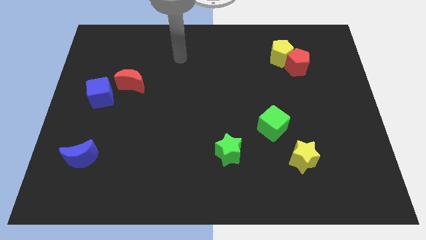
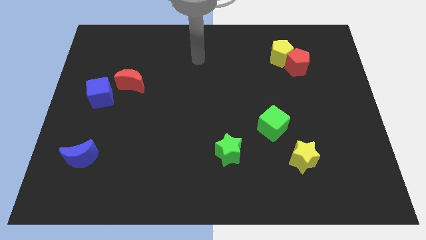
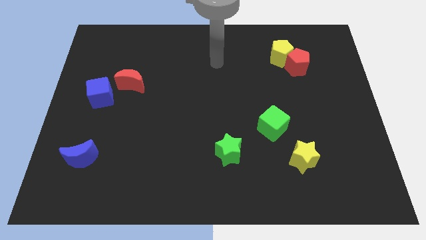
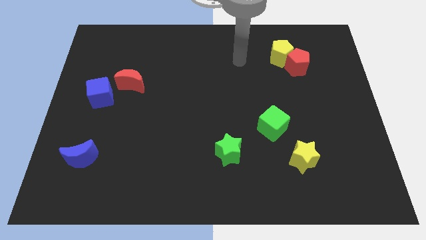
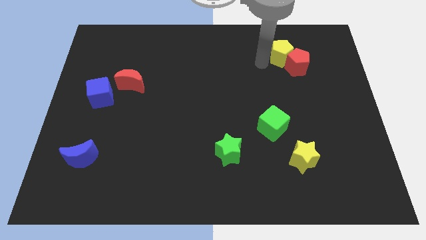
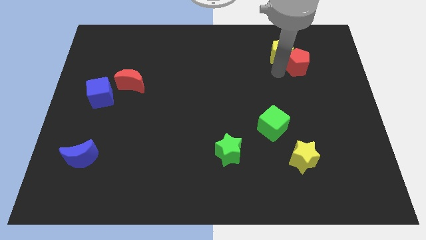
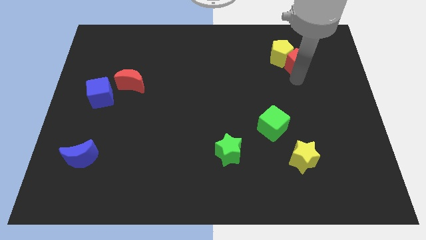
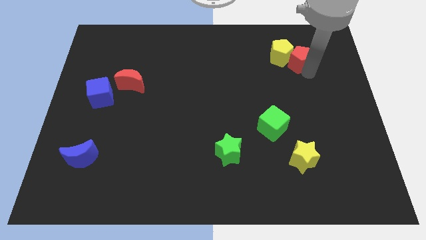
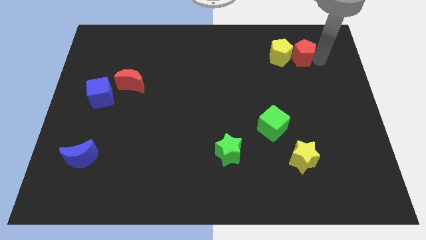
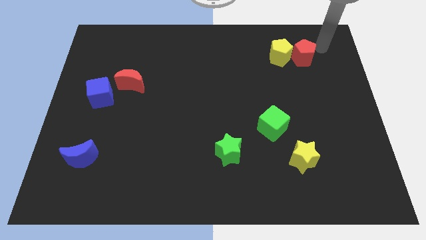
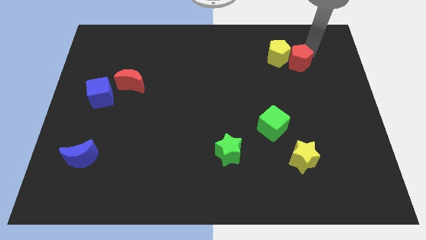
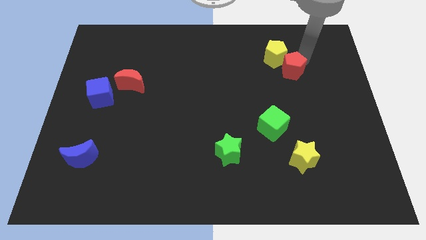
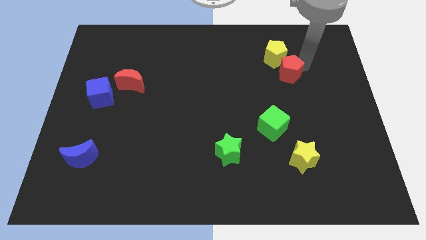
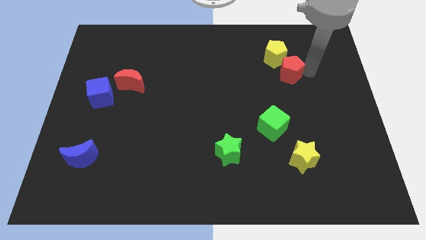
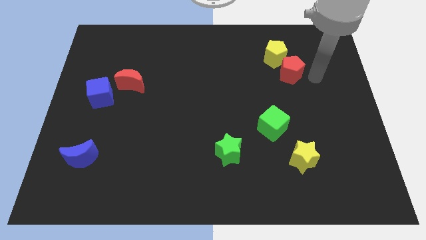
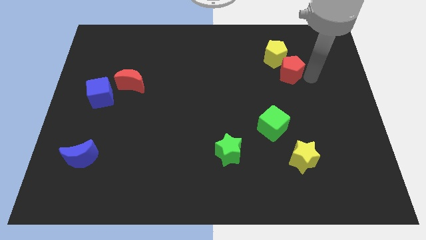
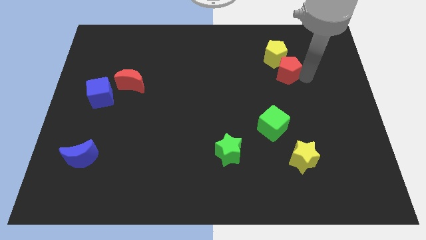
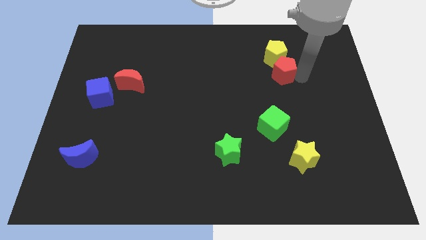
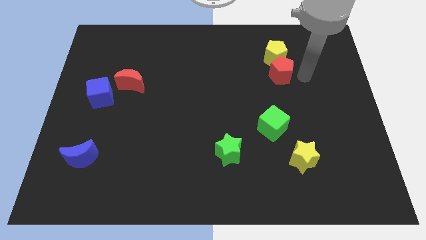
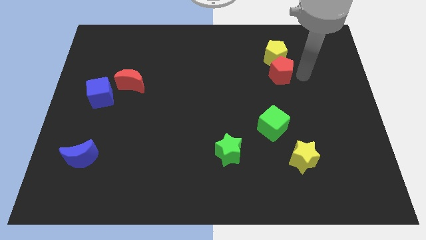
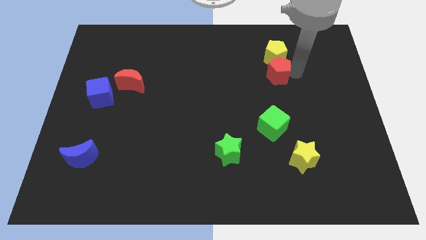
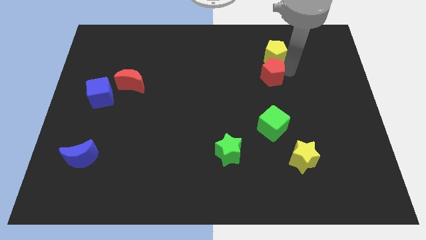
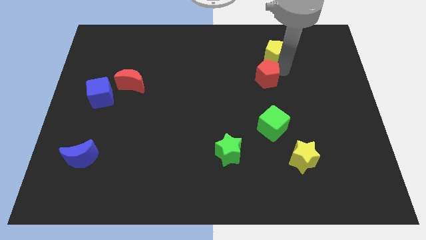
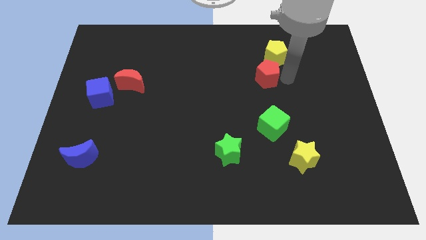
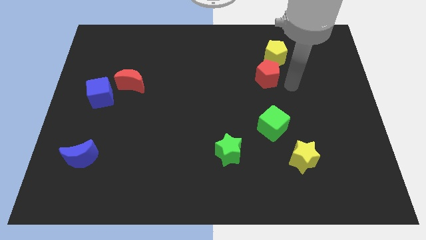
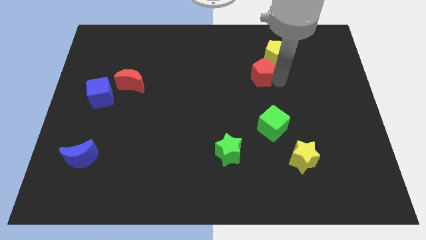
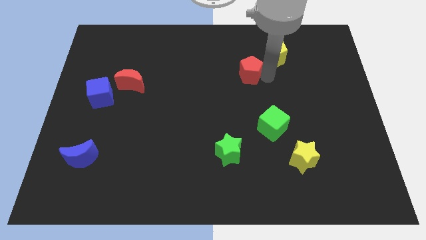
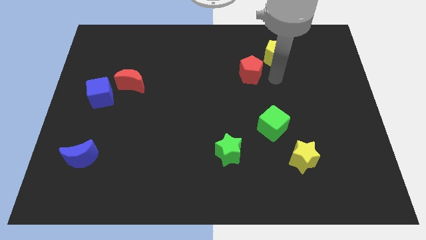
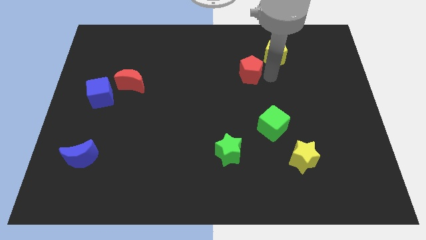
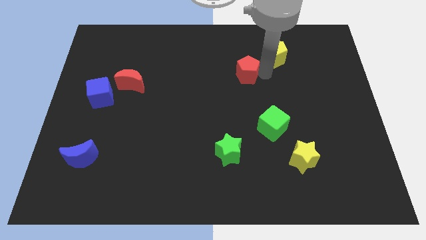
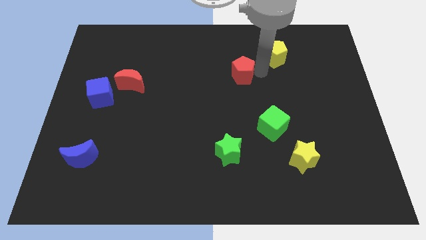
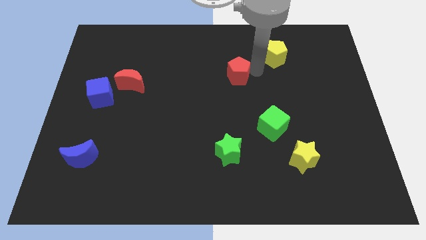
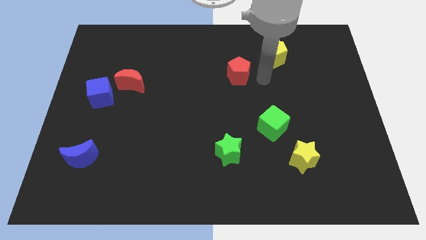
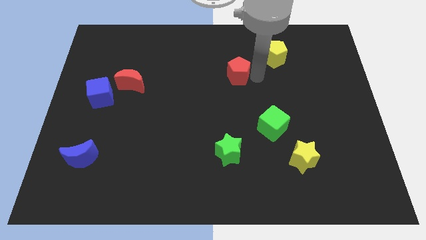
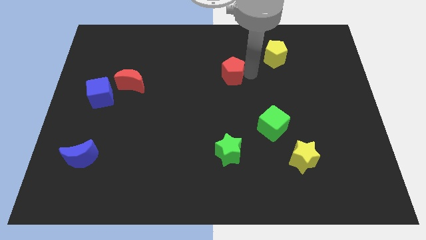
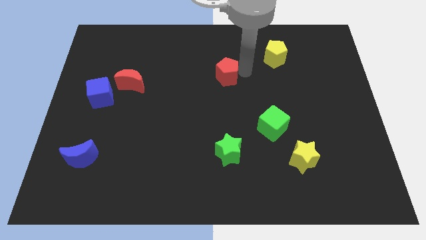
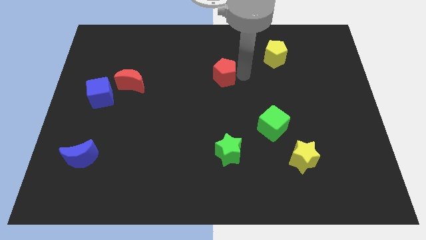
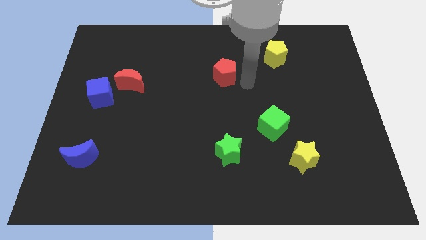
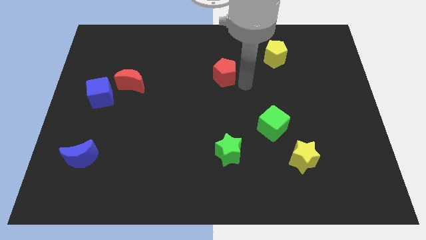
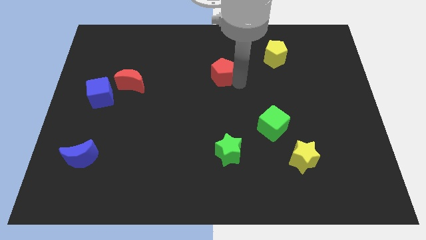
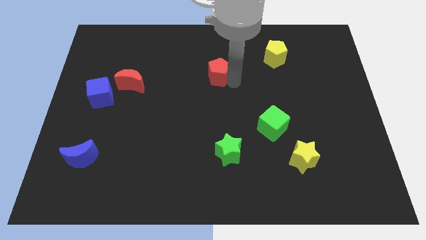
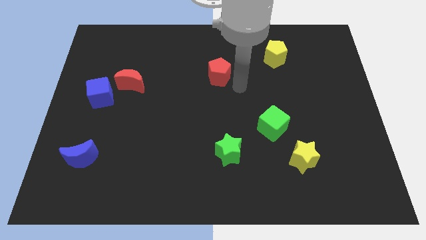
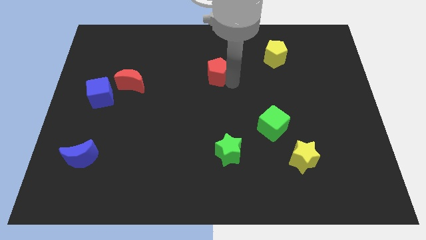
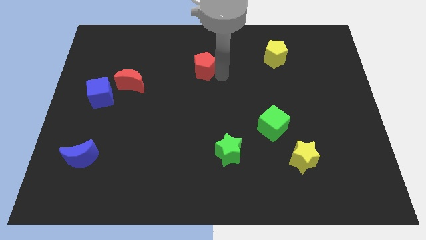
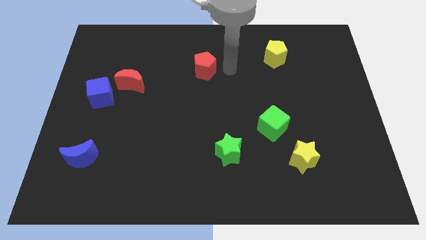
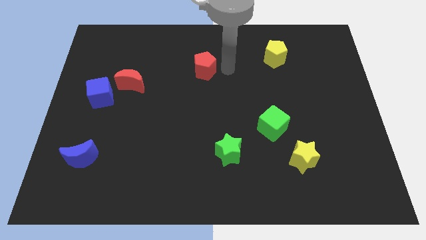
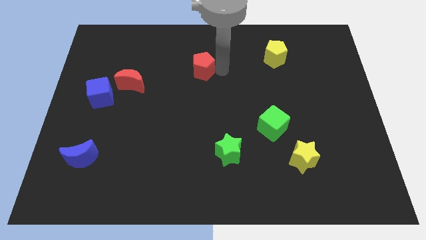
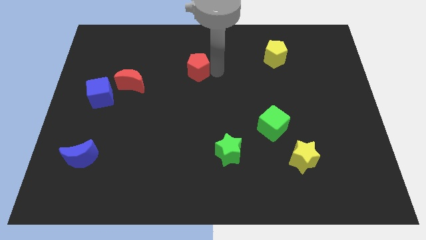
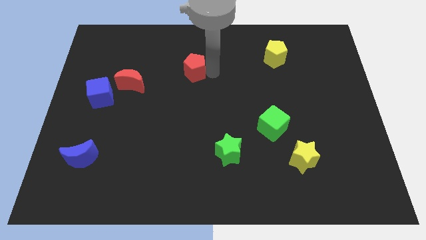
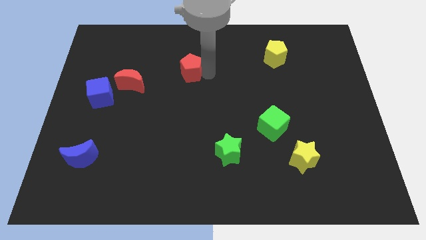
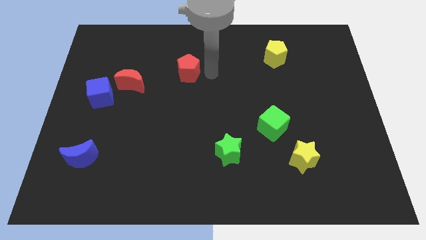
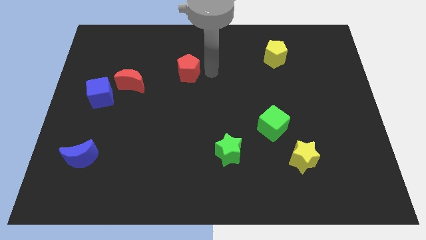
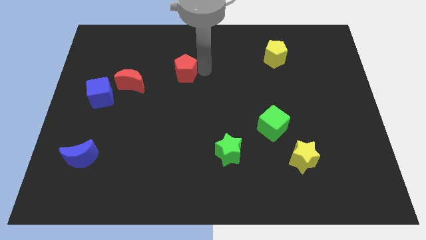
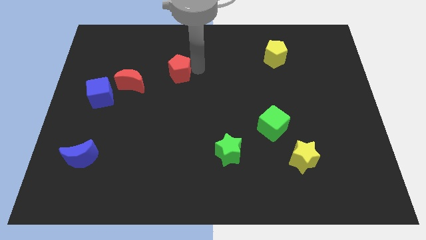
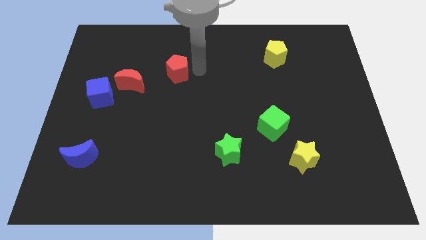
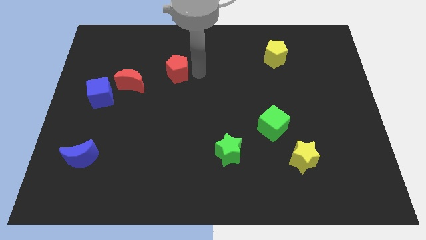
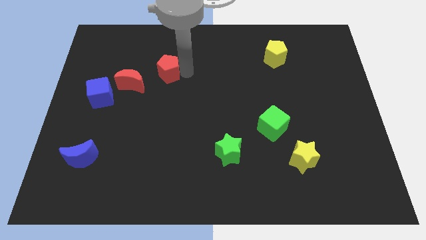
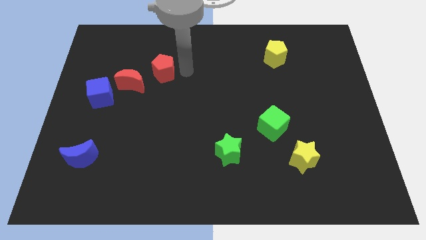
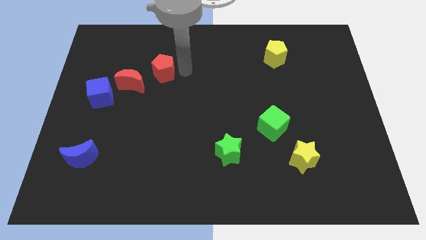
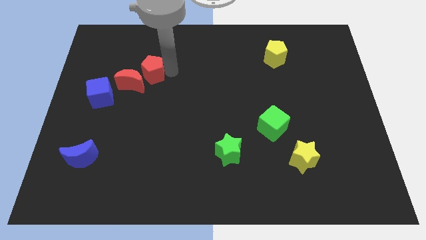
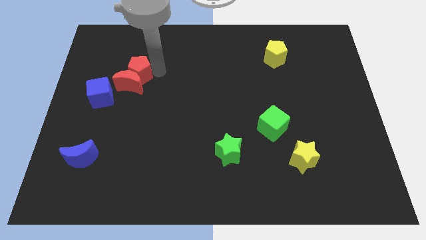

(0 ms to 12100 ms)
move the red pentagon to the top right of the blue cube

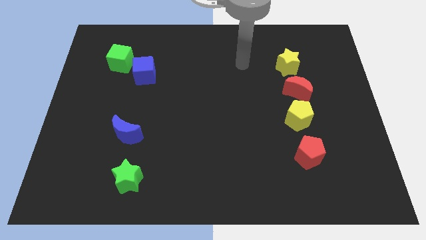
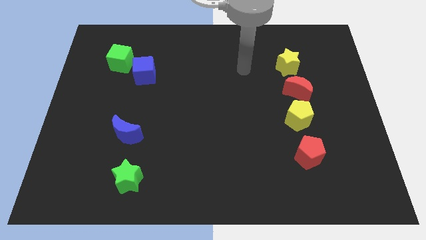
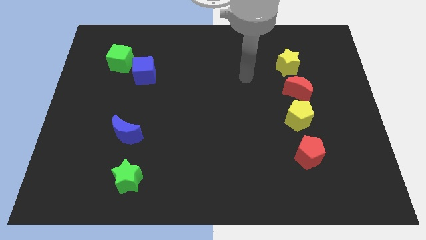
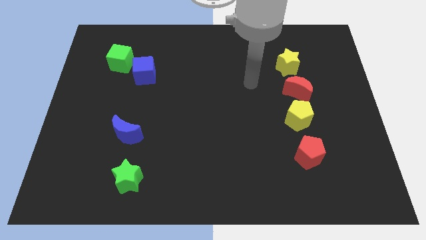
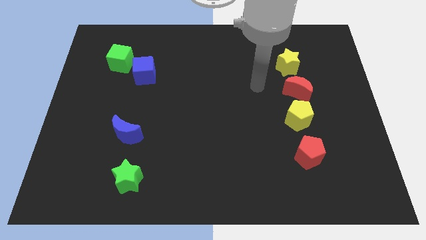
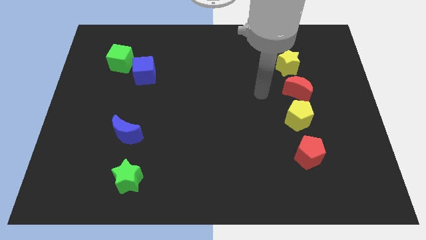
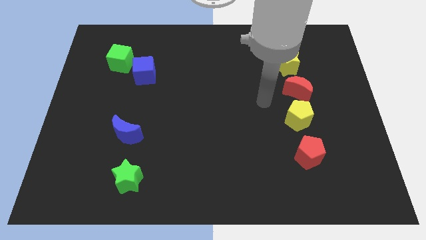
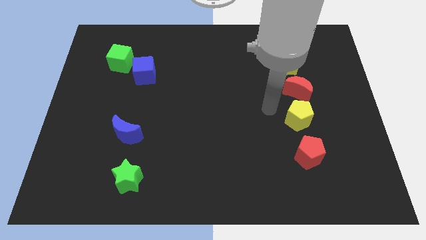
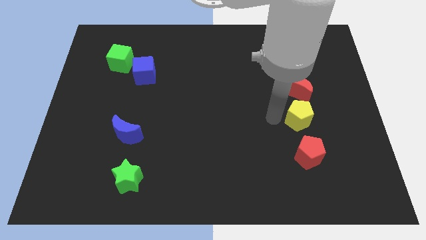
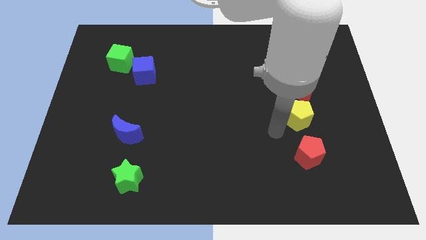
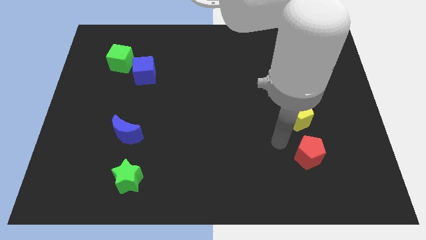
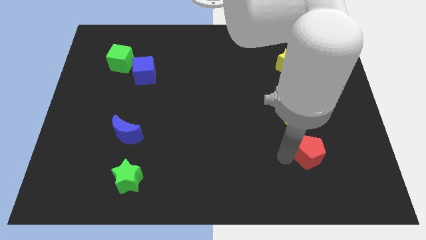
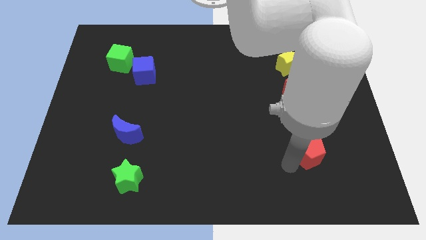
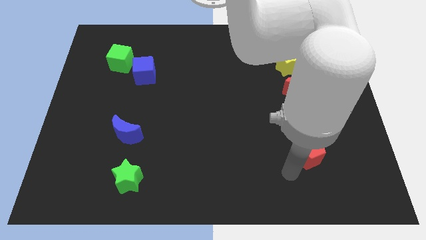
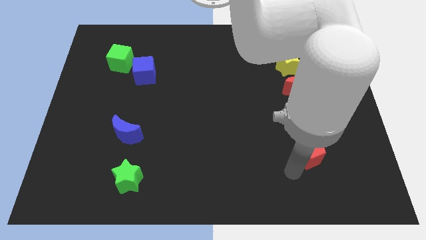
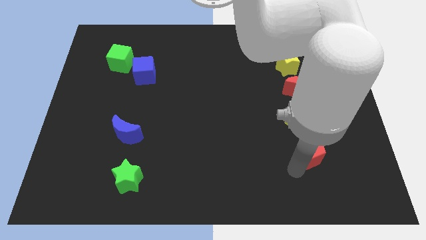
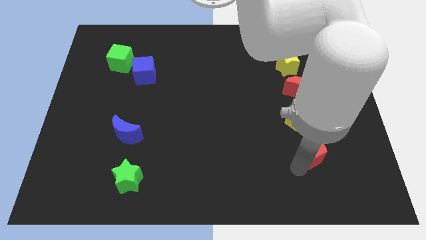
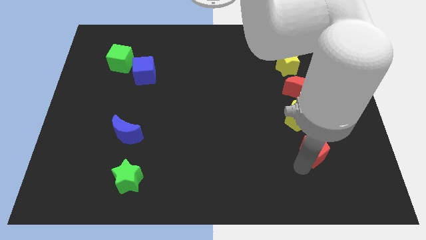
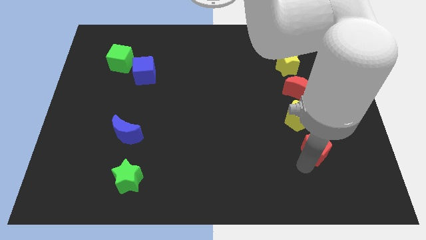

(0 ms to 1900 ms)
put the red pentagon to the bottom right of the yellow pentagon

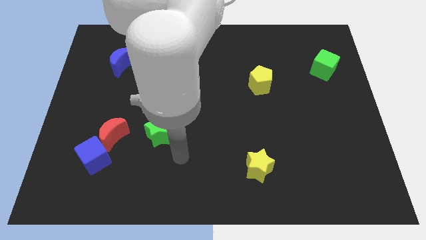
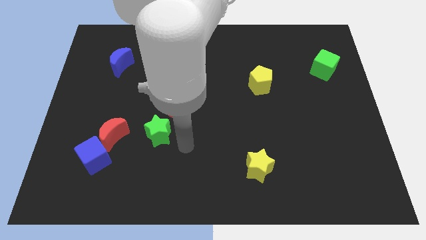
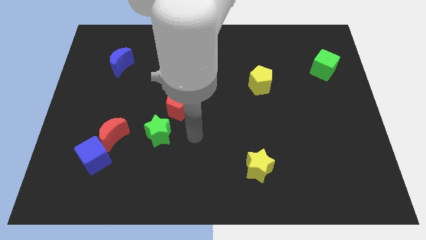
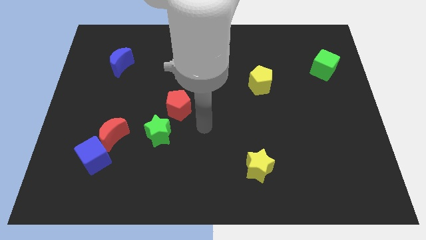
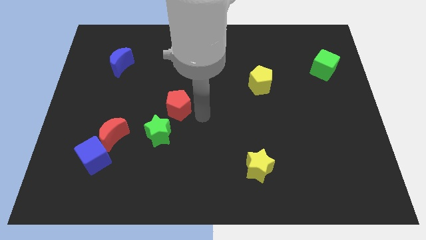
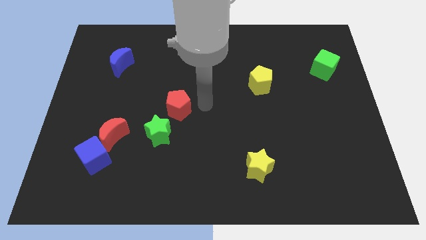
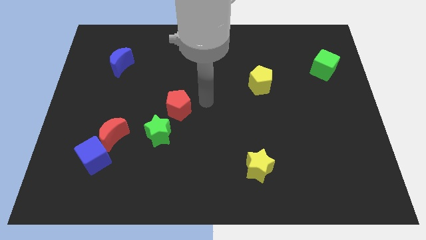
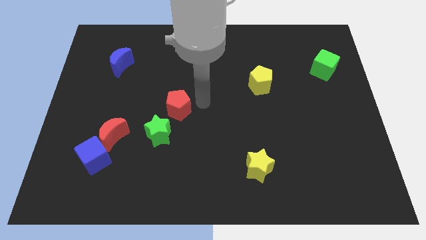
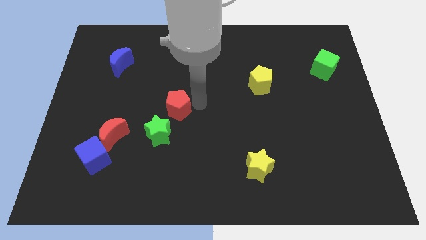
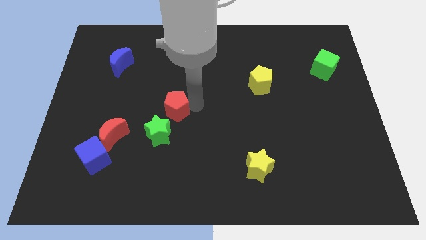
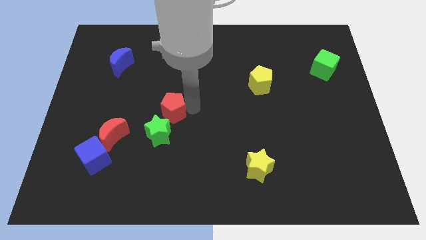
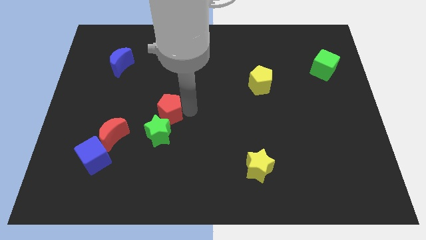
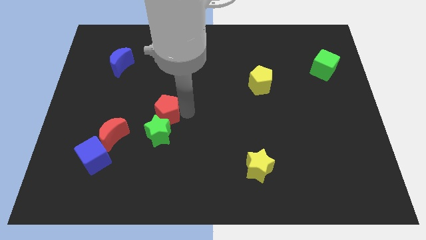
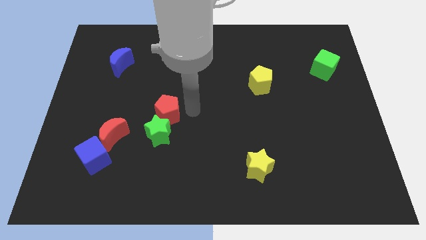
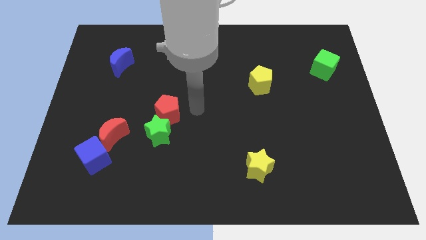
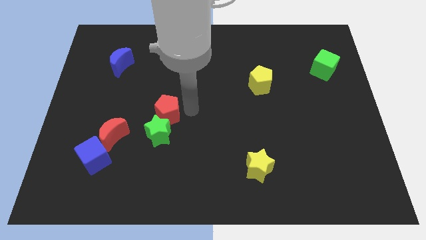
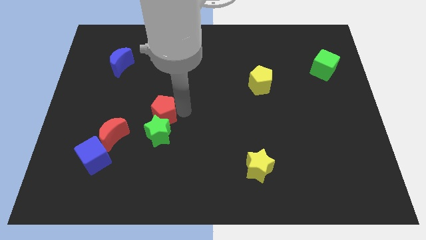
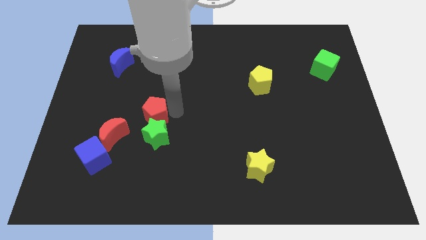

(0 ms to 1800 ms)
put the red pentagon to the top right side of the red moon
